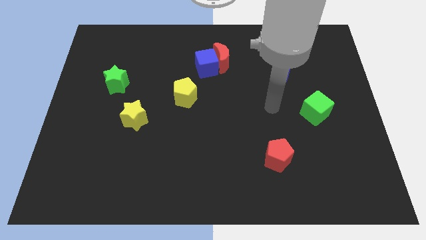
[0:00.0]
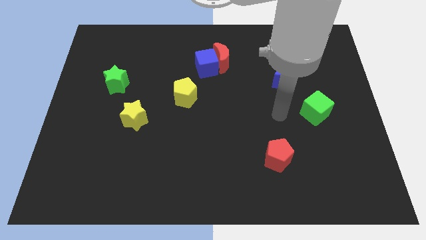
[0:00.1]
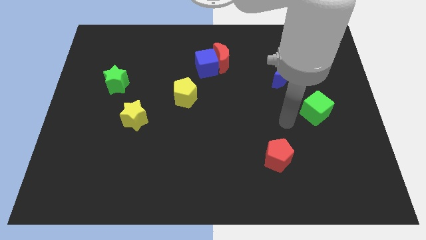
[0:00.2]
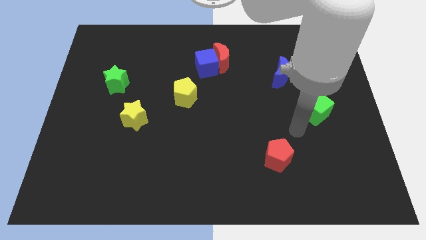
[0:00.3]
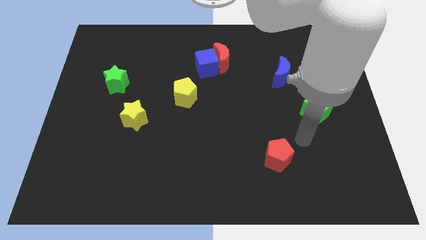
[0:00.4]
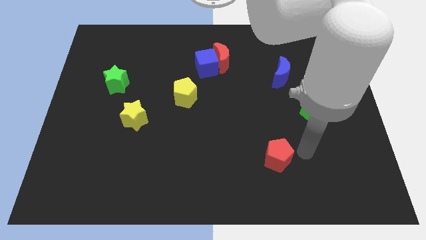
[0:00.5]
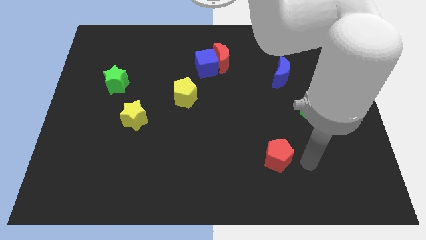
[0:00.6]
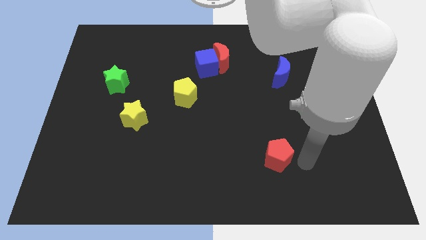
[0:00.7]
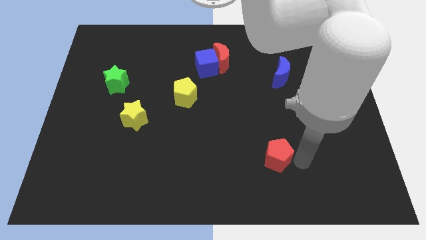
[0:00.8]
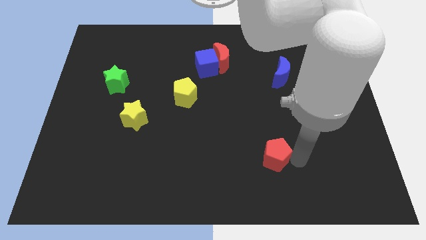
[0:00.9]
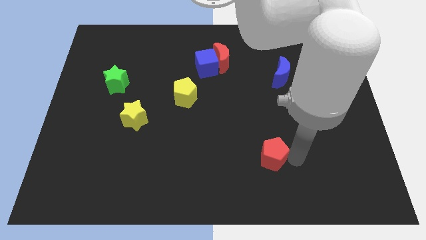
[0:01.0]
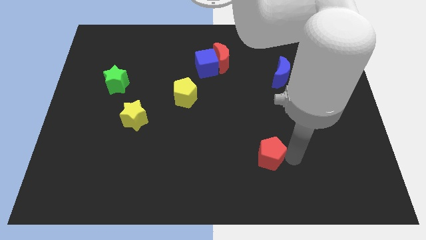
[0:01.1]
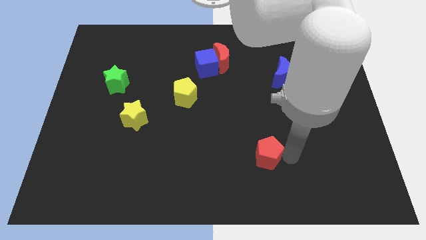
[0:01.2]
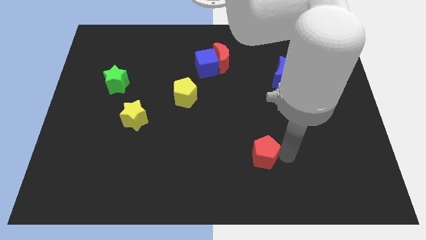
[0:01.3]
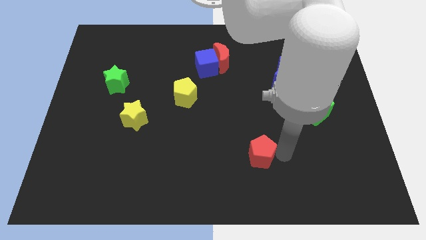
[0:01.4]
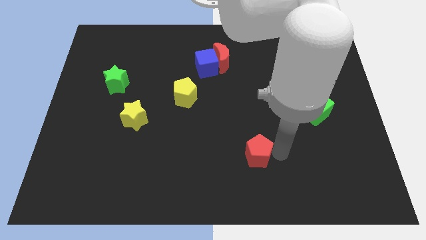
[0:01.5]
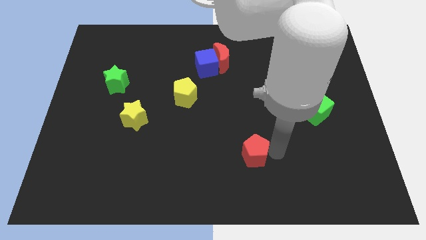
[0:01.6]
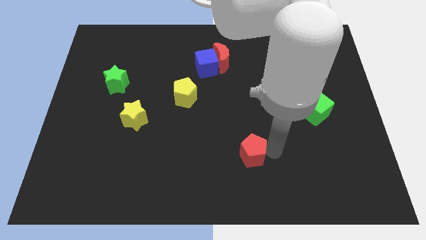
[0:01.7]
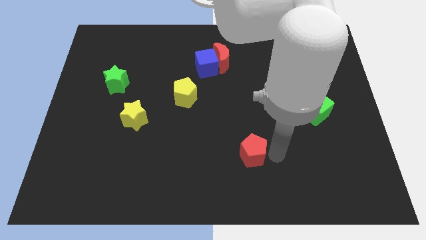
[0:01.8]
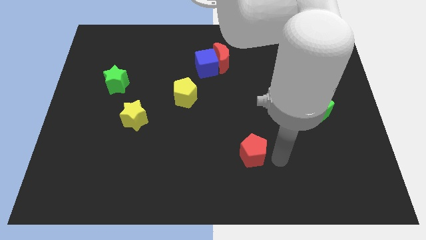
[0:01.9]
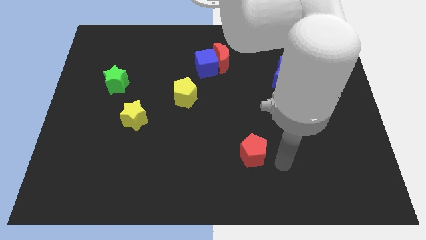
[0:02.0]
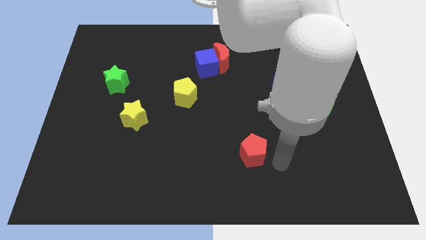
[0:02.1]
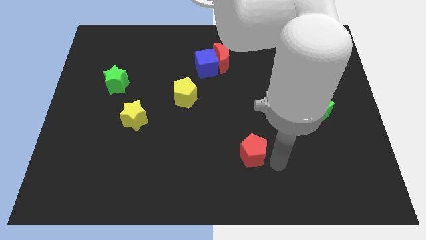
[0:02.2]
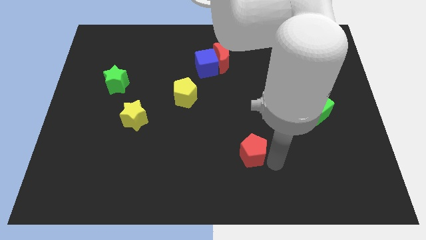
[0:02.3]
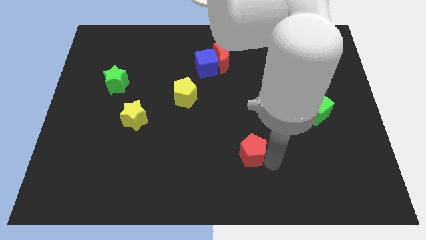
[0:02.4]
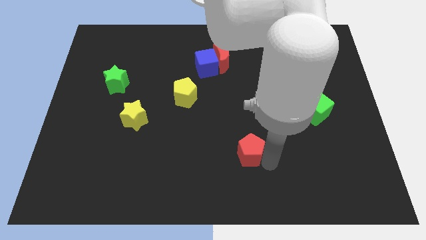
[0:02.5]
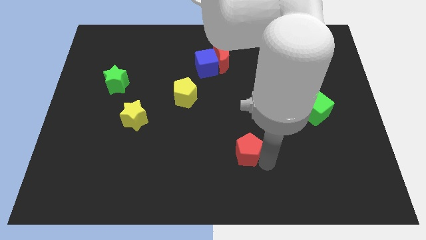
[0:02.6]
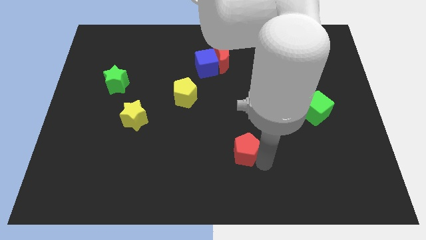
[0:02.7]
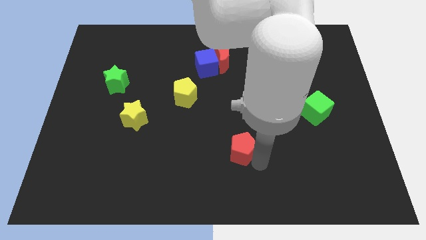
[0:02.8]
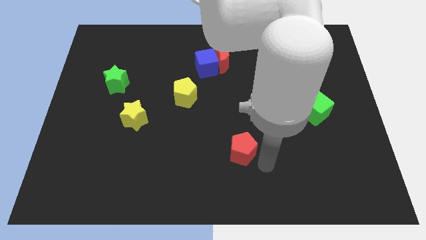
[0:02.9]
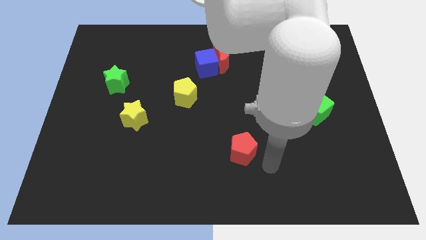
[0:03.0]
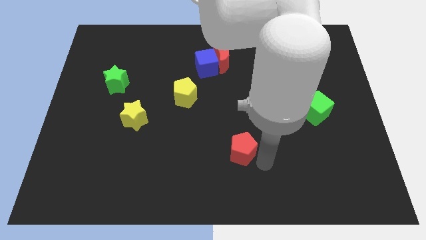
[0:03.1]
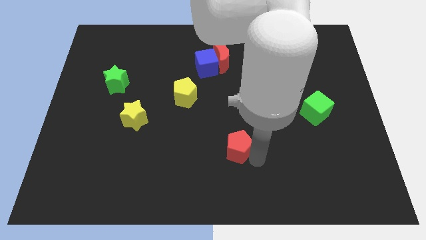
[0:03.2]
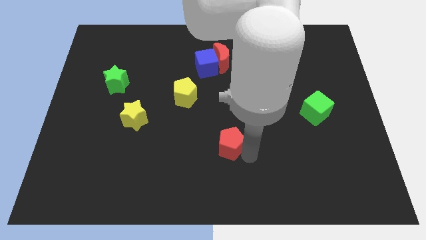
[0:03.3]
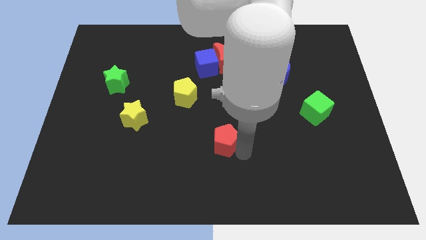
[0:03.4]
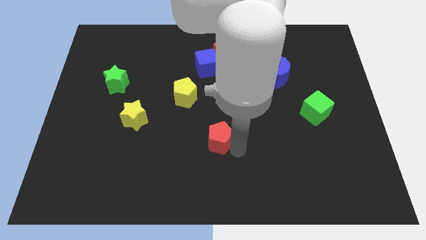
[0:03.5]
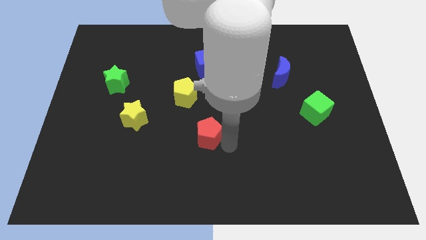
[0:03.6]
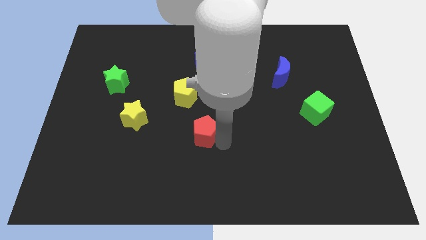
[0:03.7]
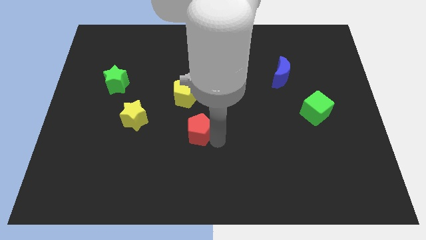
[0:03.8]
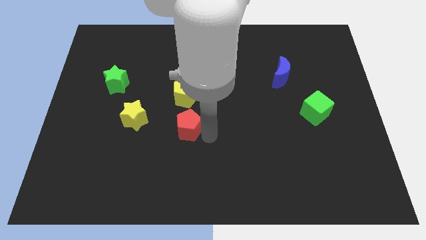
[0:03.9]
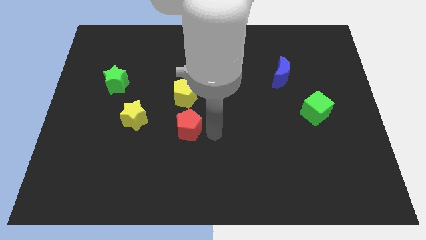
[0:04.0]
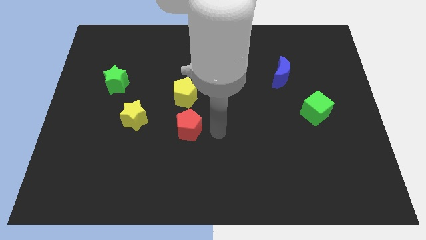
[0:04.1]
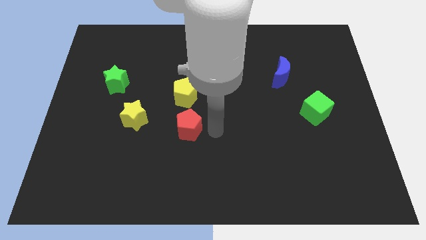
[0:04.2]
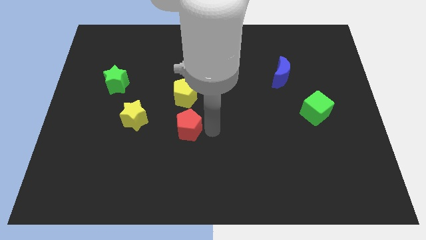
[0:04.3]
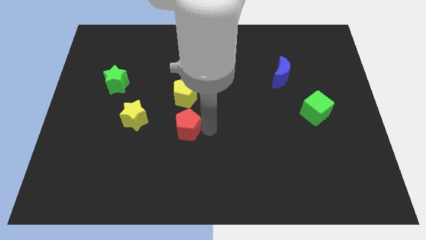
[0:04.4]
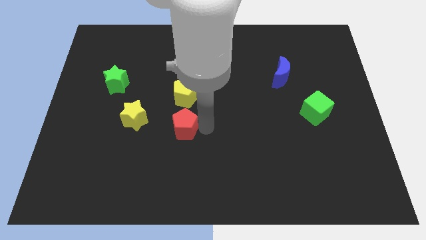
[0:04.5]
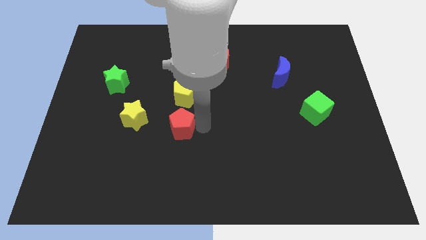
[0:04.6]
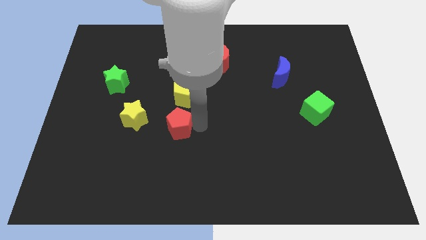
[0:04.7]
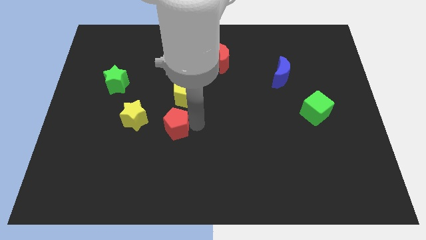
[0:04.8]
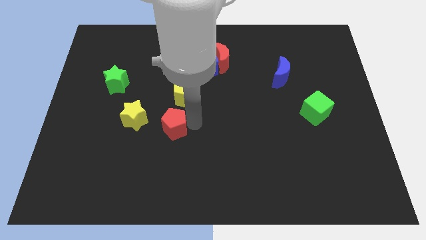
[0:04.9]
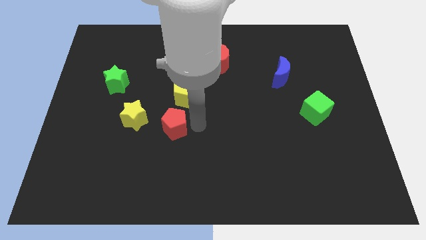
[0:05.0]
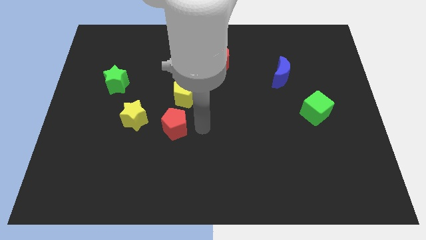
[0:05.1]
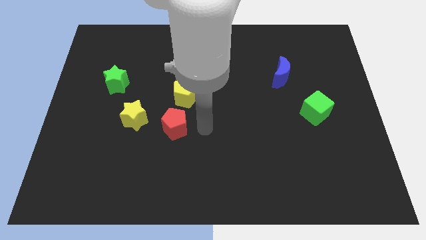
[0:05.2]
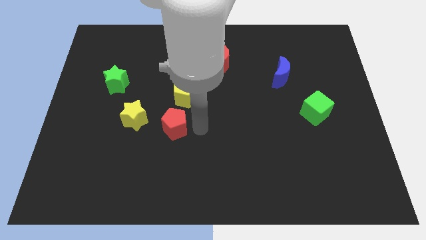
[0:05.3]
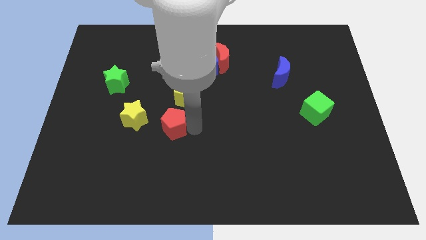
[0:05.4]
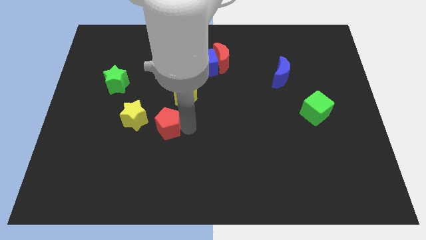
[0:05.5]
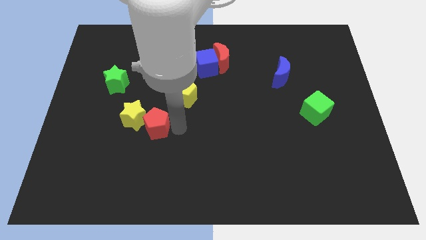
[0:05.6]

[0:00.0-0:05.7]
move the red pentagon close to the yellow star

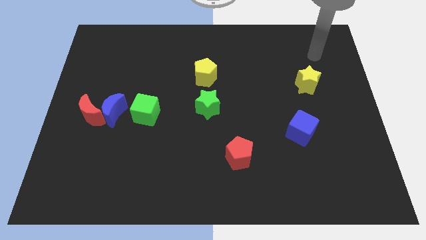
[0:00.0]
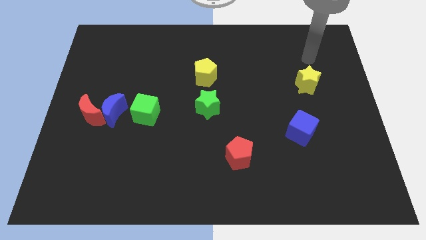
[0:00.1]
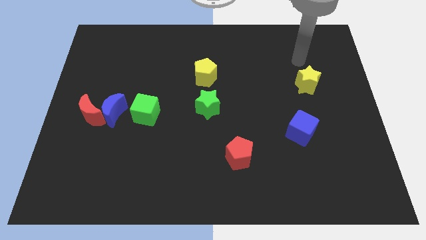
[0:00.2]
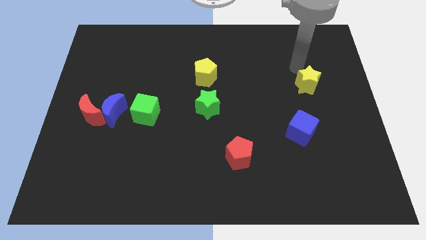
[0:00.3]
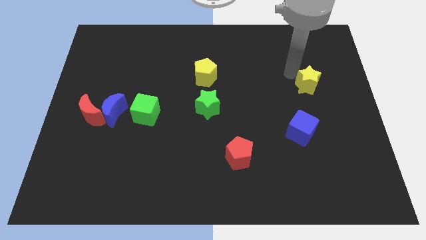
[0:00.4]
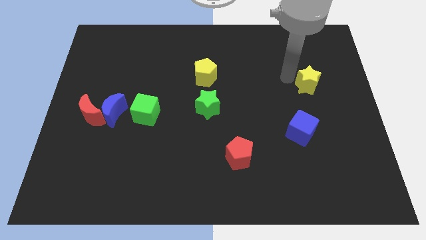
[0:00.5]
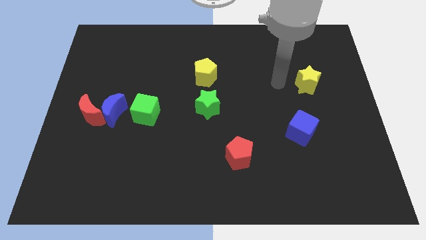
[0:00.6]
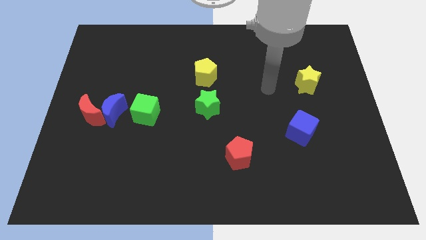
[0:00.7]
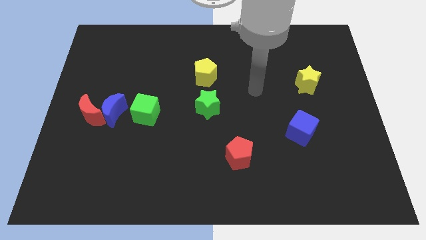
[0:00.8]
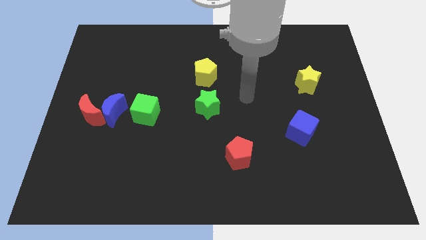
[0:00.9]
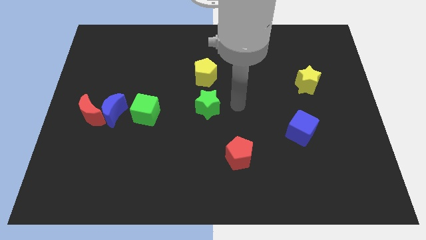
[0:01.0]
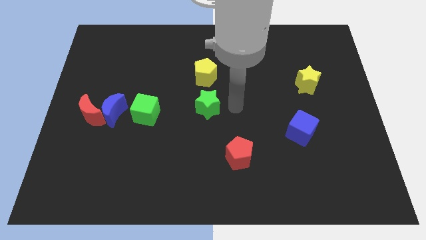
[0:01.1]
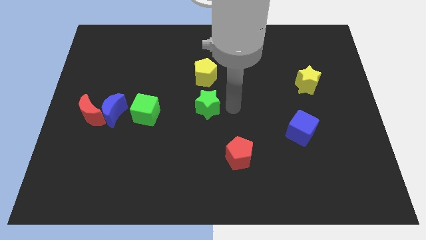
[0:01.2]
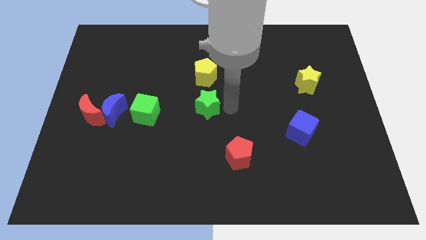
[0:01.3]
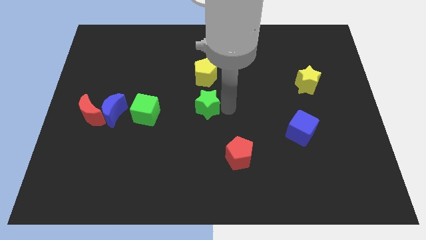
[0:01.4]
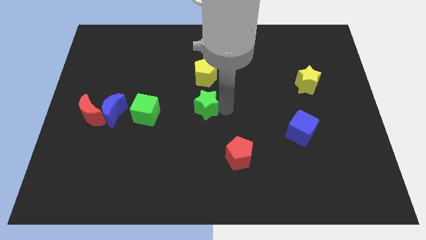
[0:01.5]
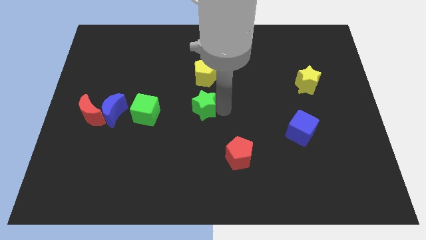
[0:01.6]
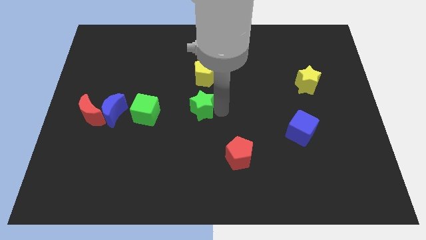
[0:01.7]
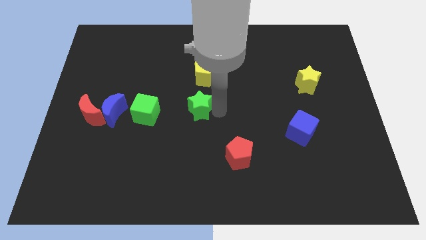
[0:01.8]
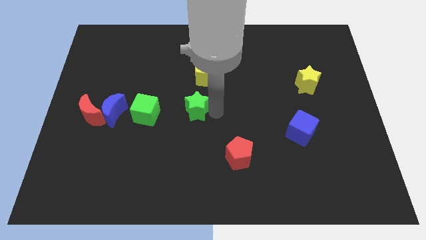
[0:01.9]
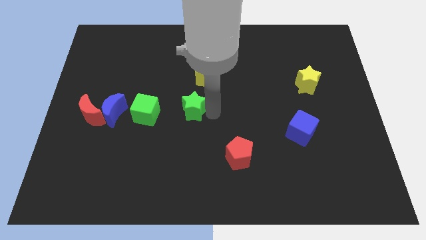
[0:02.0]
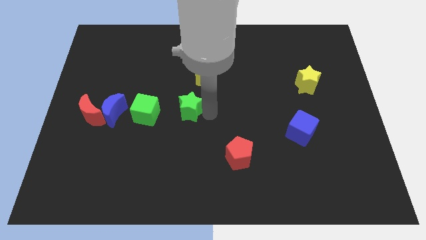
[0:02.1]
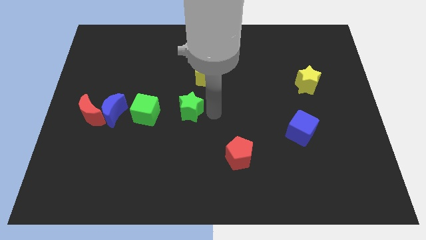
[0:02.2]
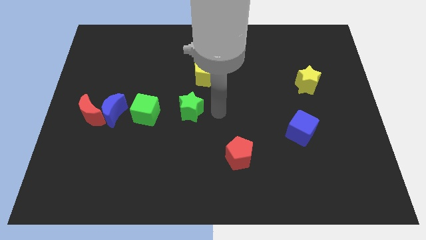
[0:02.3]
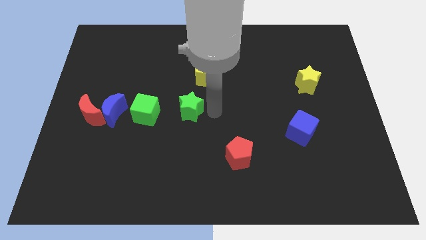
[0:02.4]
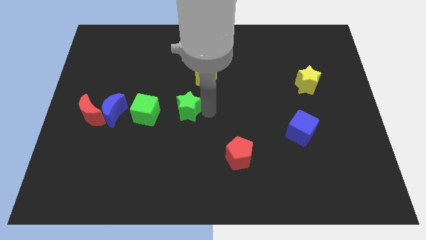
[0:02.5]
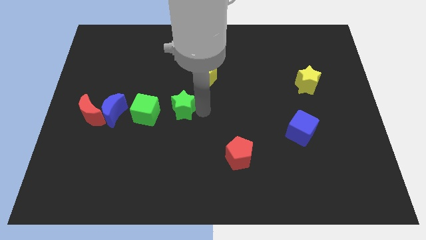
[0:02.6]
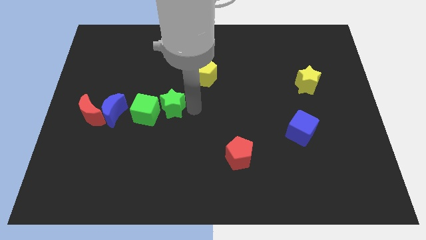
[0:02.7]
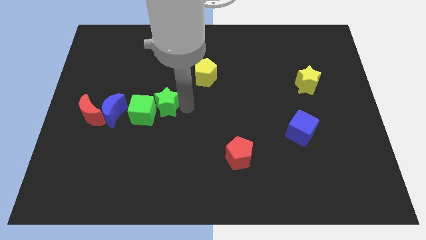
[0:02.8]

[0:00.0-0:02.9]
move the green star next to the green cube
